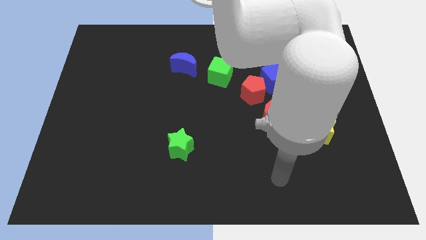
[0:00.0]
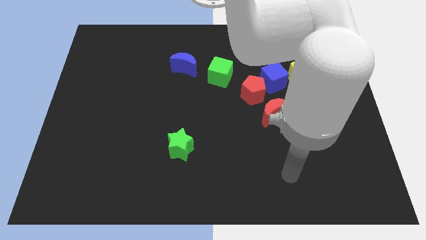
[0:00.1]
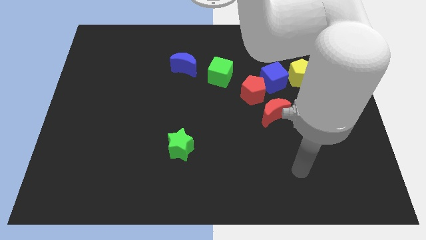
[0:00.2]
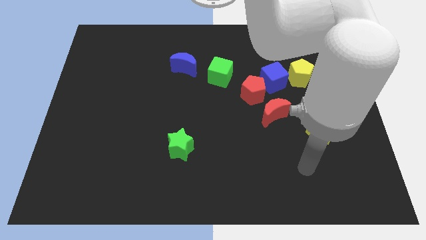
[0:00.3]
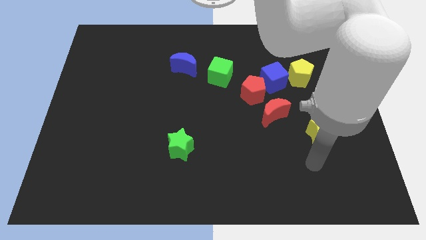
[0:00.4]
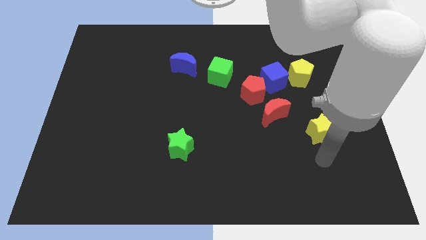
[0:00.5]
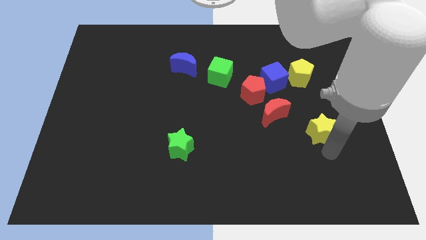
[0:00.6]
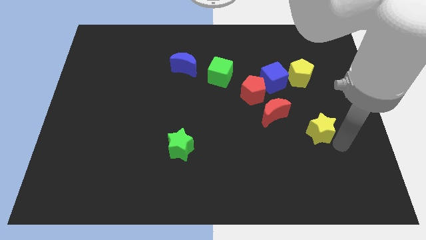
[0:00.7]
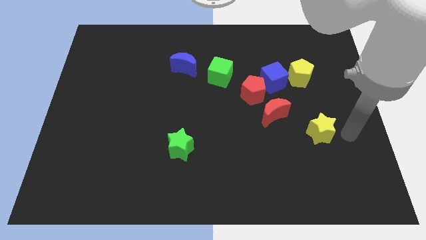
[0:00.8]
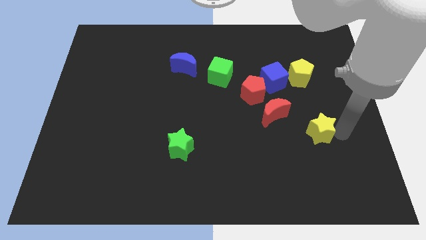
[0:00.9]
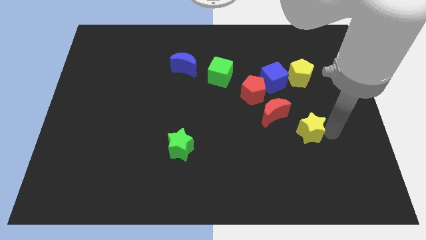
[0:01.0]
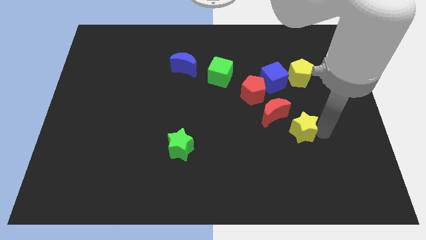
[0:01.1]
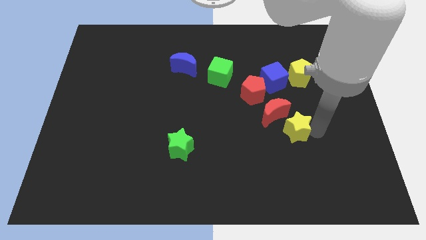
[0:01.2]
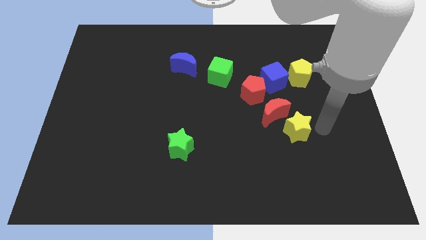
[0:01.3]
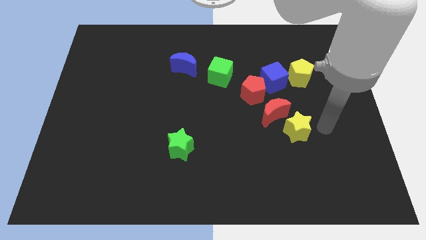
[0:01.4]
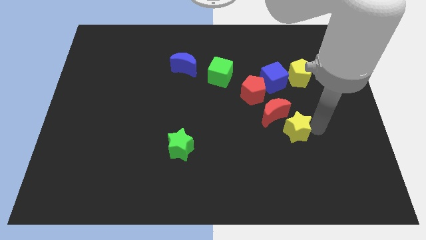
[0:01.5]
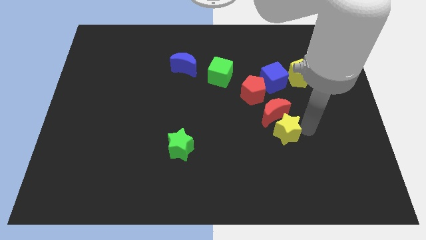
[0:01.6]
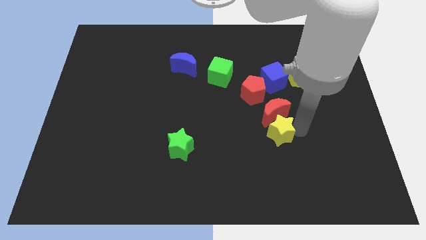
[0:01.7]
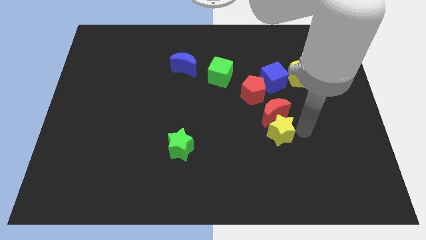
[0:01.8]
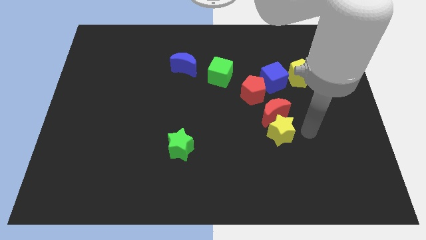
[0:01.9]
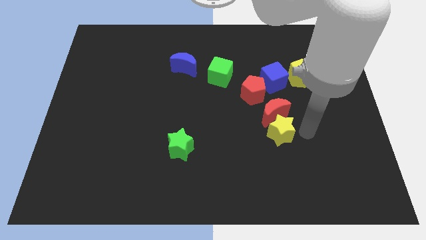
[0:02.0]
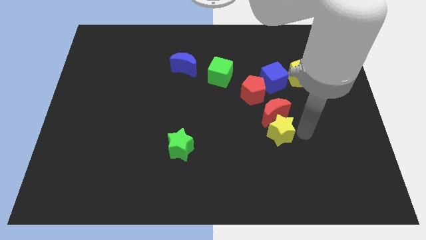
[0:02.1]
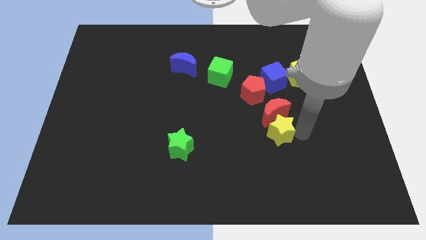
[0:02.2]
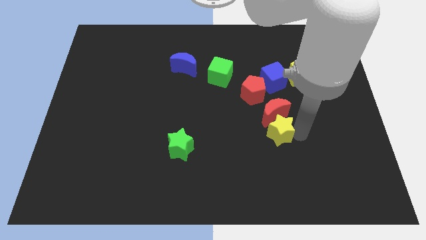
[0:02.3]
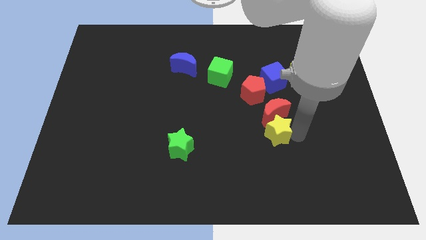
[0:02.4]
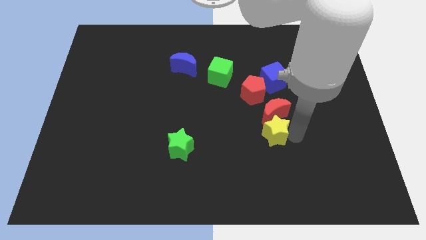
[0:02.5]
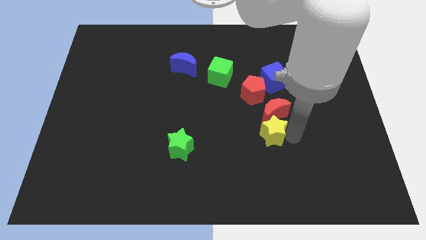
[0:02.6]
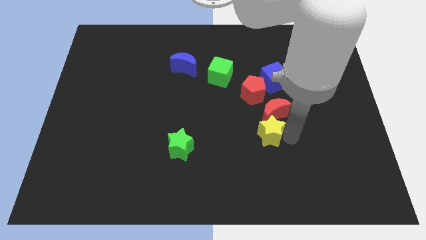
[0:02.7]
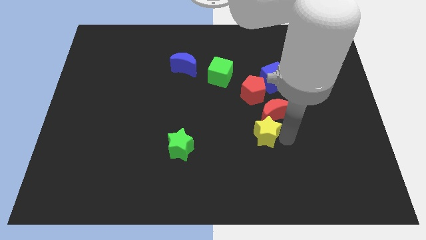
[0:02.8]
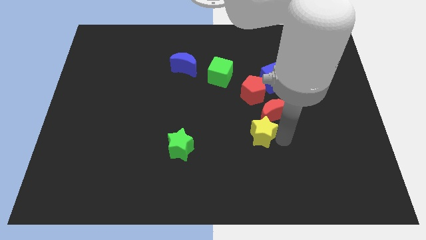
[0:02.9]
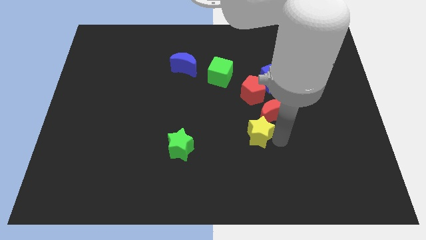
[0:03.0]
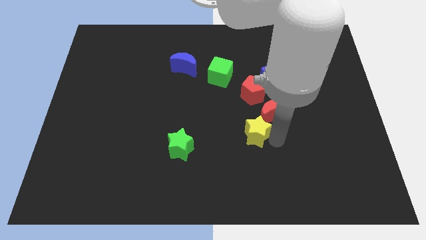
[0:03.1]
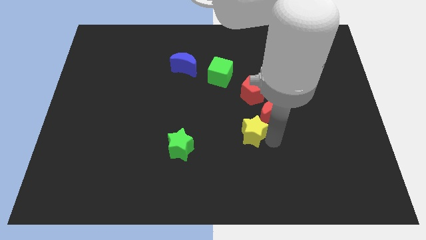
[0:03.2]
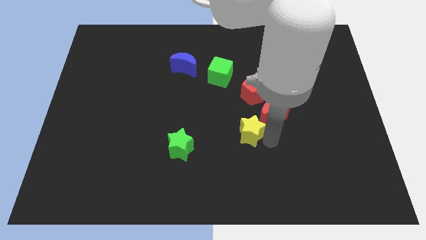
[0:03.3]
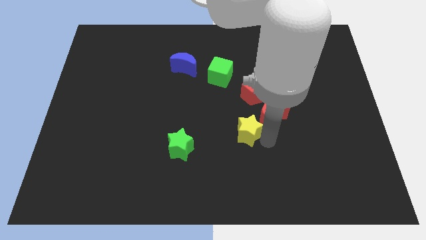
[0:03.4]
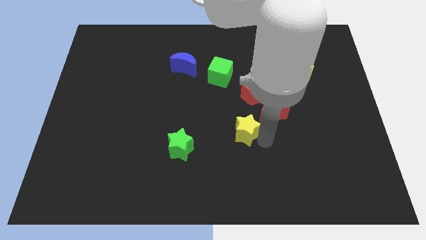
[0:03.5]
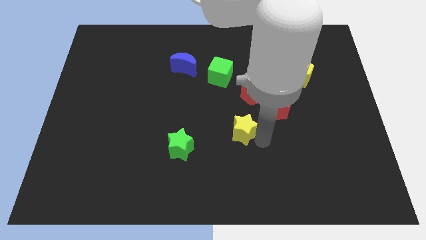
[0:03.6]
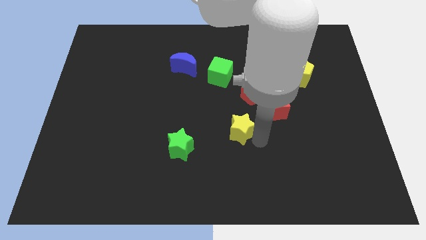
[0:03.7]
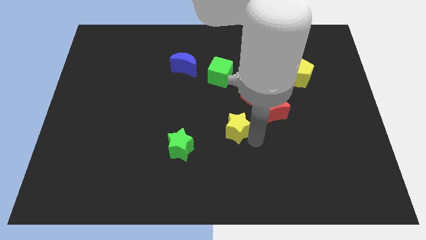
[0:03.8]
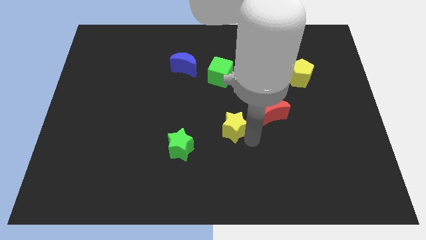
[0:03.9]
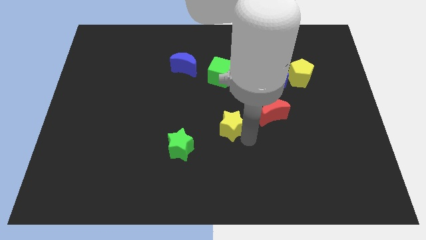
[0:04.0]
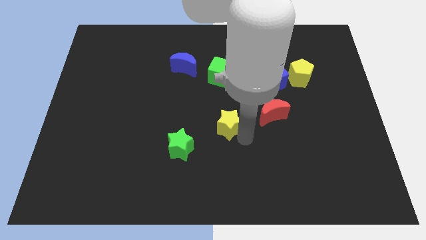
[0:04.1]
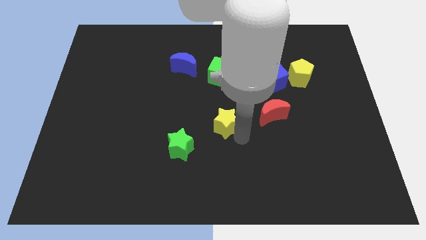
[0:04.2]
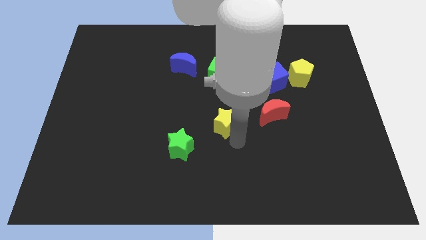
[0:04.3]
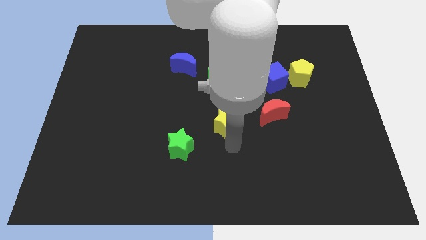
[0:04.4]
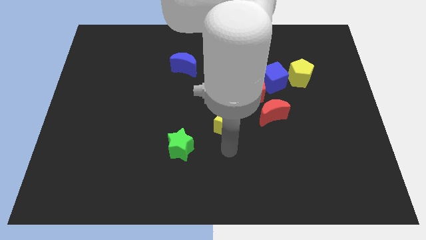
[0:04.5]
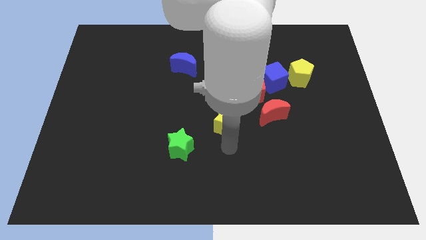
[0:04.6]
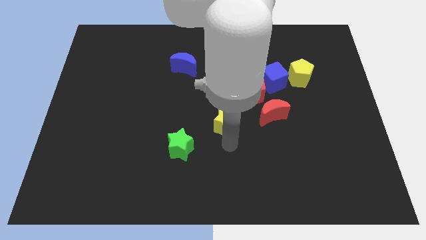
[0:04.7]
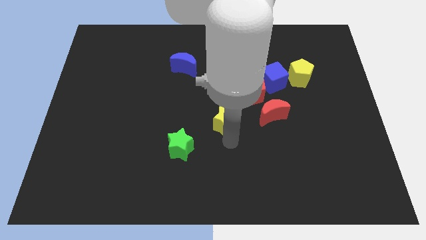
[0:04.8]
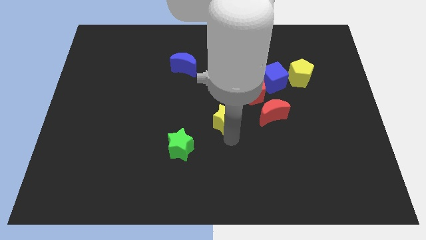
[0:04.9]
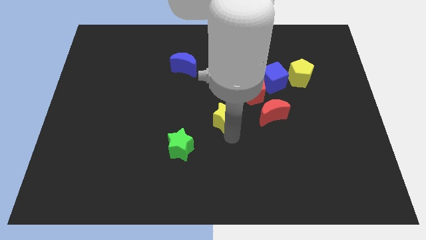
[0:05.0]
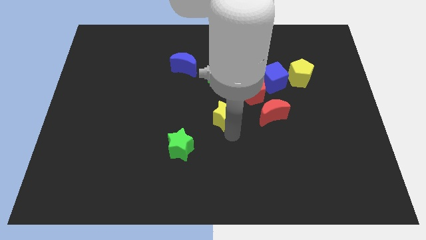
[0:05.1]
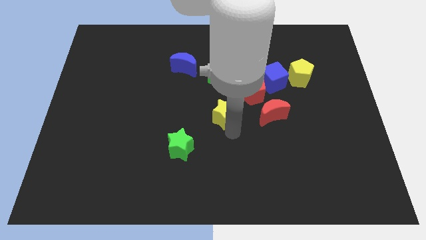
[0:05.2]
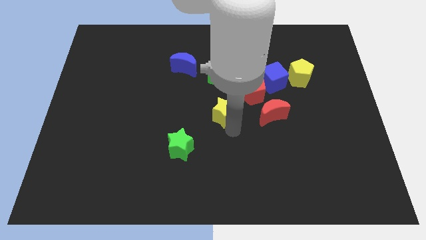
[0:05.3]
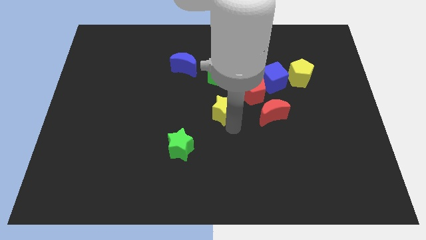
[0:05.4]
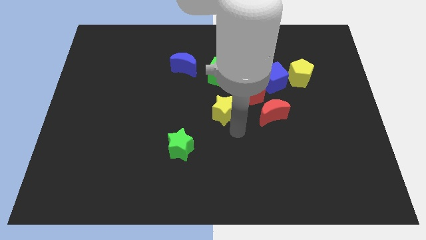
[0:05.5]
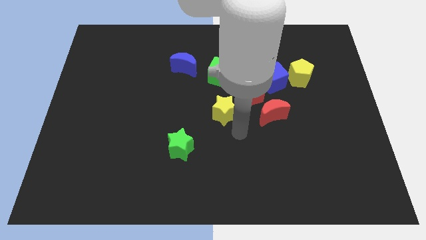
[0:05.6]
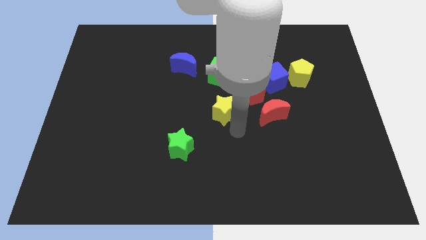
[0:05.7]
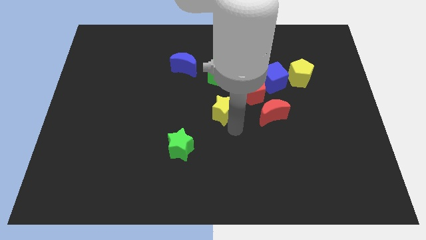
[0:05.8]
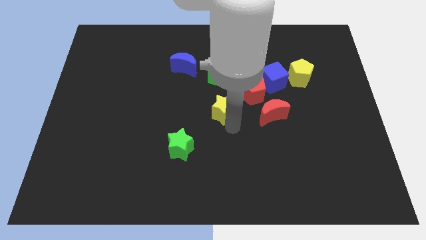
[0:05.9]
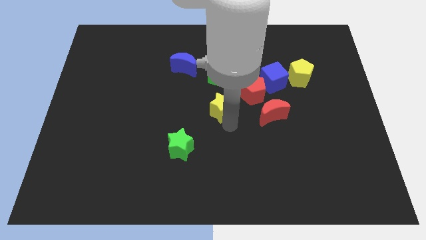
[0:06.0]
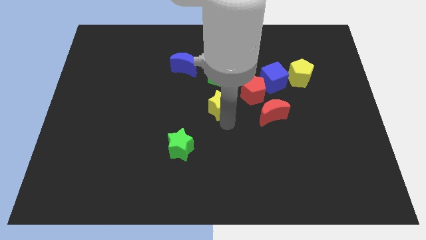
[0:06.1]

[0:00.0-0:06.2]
move the yellow star left of the red pentagon
